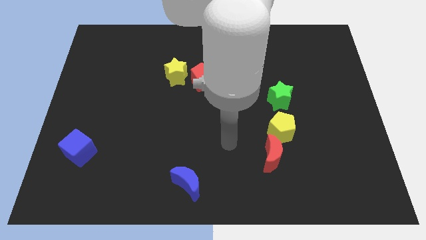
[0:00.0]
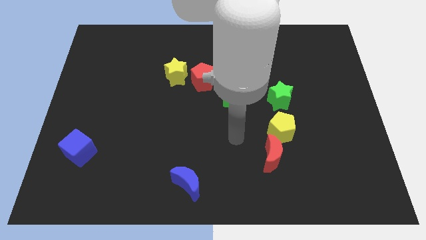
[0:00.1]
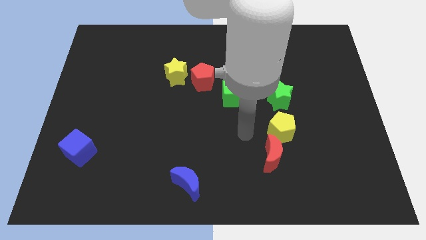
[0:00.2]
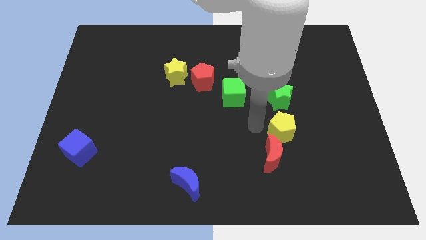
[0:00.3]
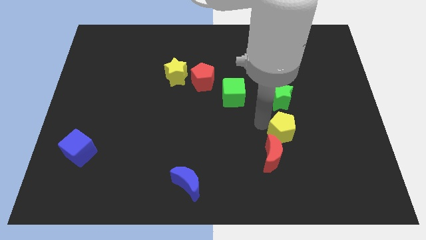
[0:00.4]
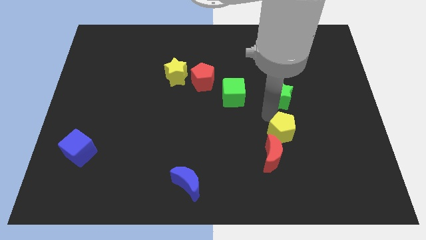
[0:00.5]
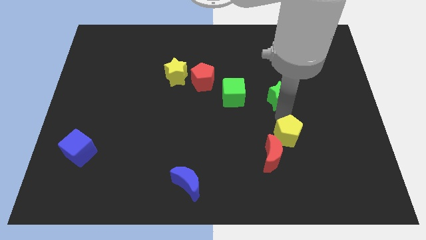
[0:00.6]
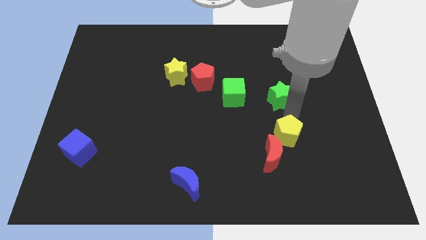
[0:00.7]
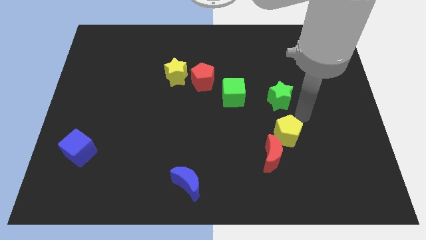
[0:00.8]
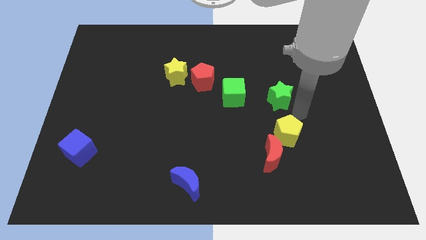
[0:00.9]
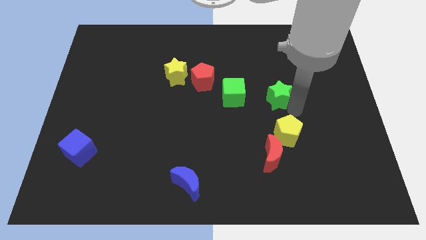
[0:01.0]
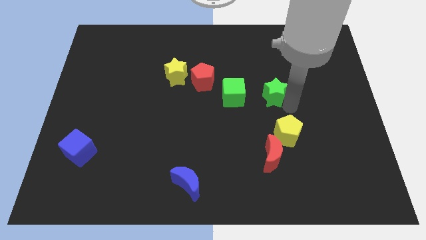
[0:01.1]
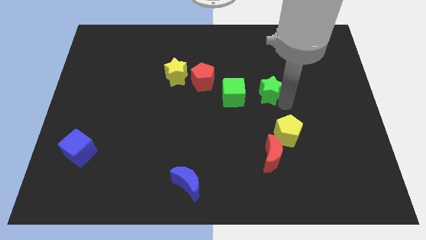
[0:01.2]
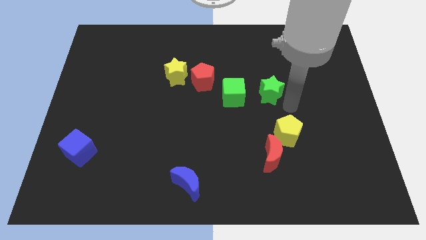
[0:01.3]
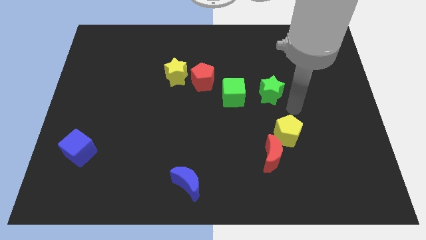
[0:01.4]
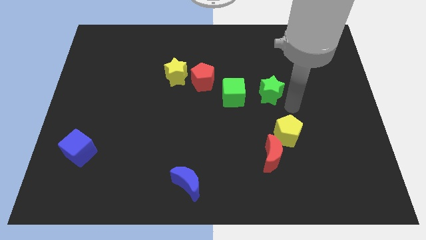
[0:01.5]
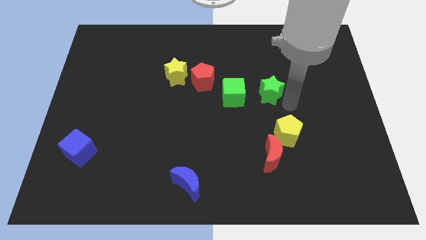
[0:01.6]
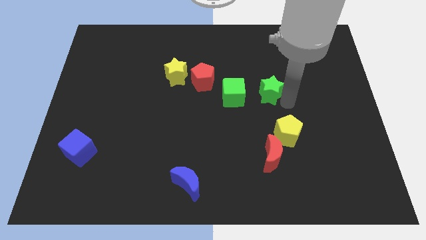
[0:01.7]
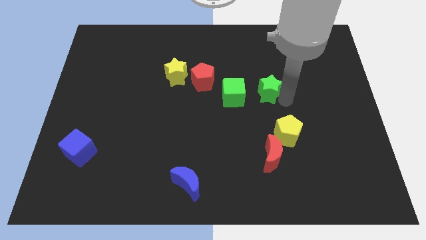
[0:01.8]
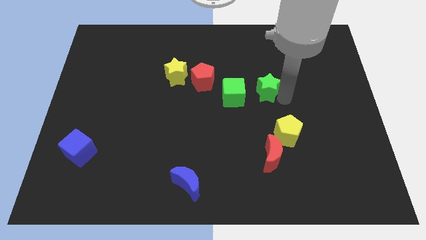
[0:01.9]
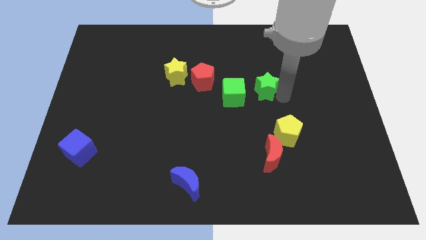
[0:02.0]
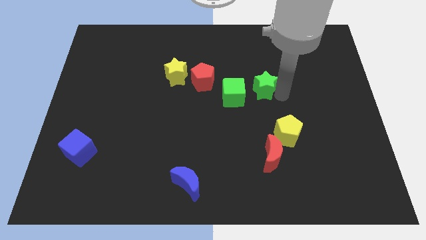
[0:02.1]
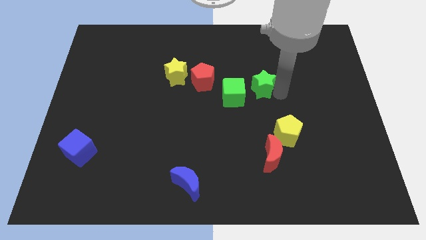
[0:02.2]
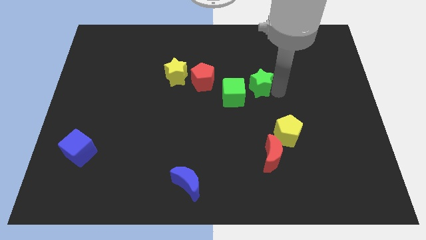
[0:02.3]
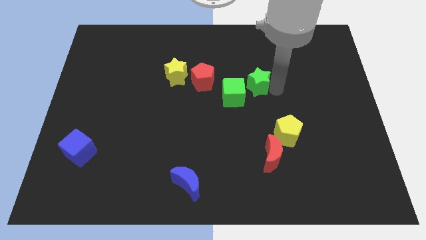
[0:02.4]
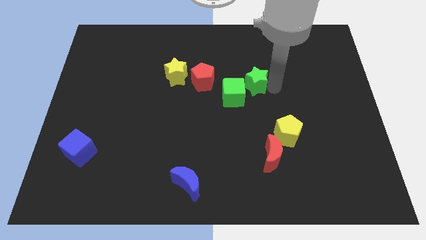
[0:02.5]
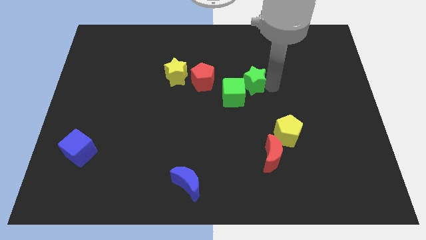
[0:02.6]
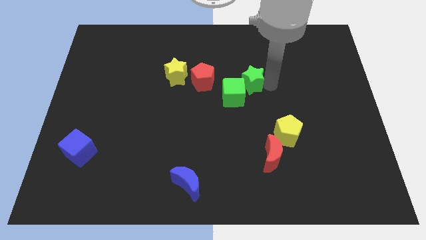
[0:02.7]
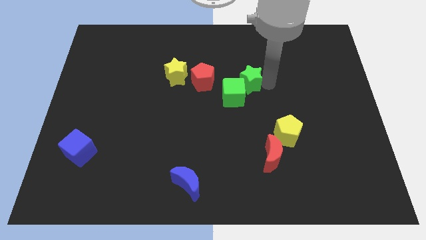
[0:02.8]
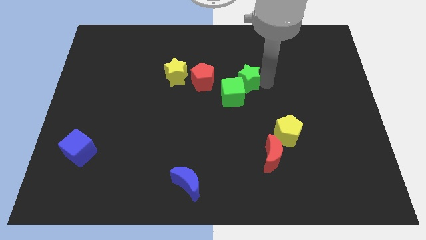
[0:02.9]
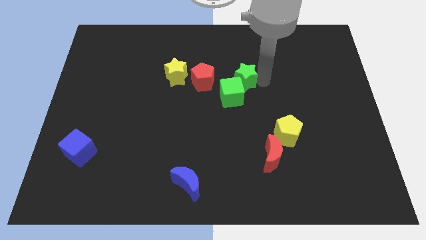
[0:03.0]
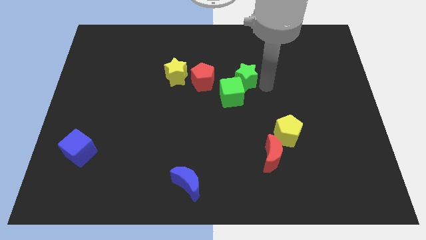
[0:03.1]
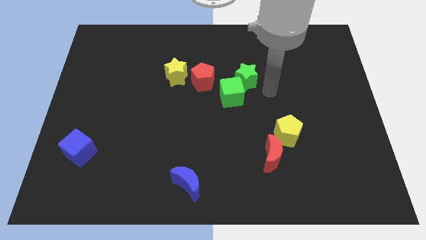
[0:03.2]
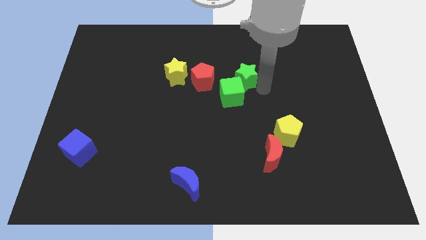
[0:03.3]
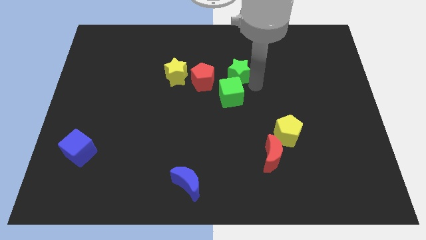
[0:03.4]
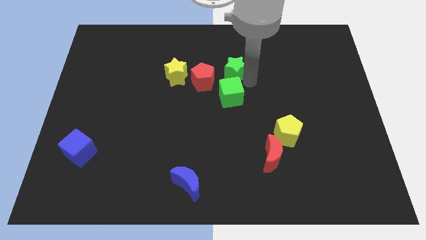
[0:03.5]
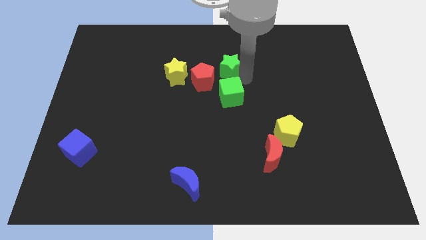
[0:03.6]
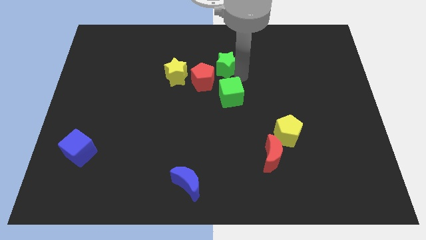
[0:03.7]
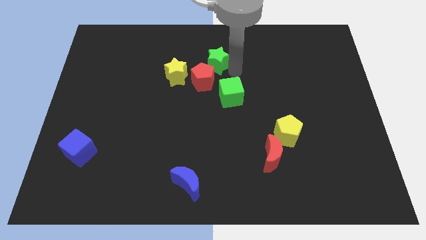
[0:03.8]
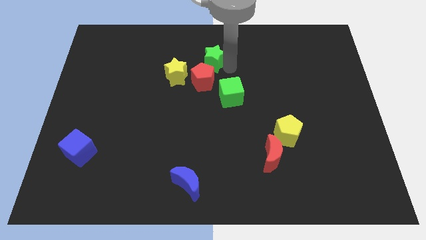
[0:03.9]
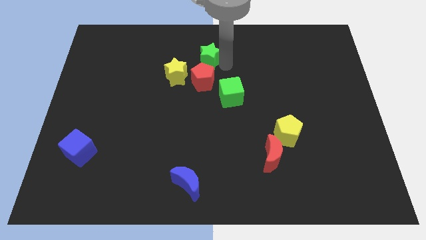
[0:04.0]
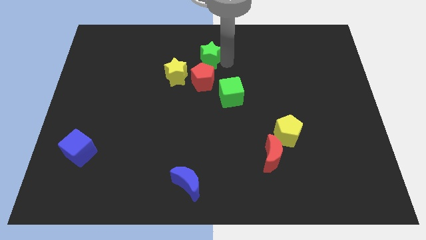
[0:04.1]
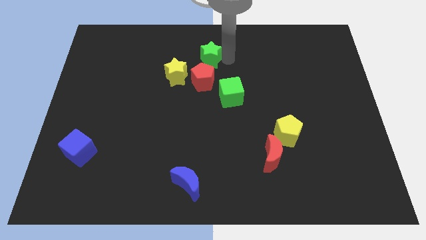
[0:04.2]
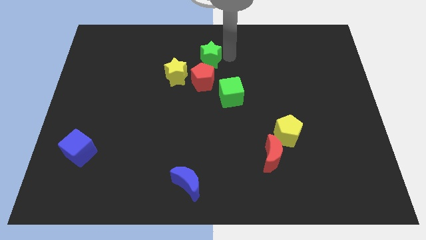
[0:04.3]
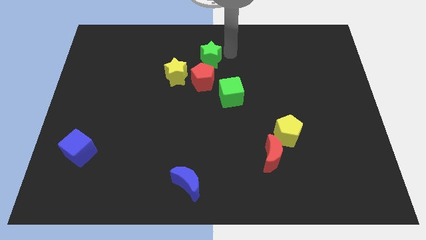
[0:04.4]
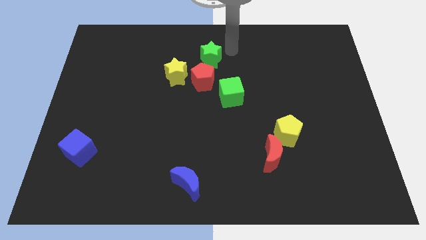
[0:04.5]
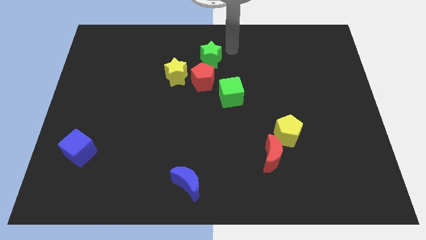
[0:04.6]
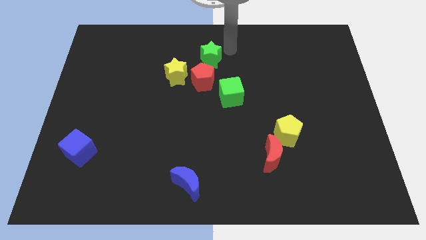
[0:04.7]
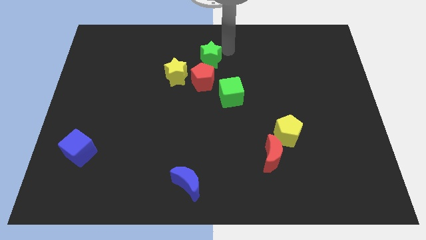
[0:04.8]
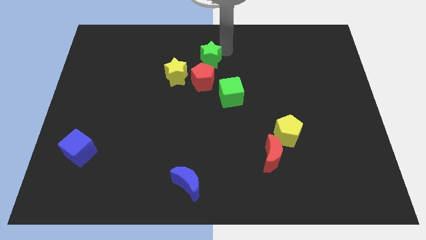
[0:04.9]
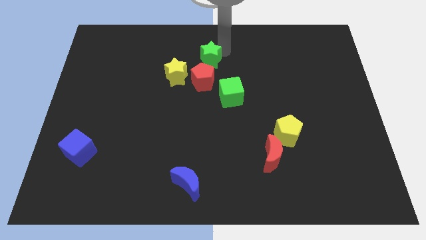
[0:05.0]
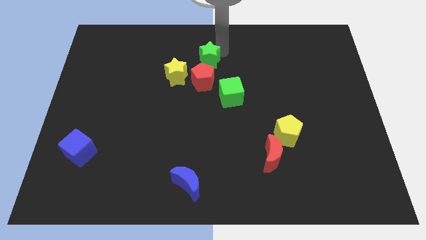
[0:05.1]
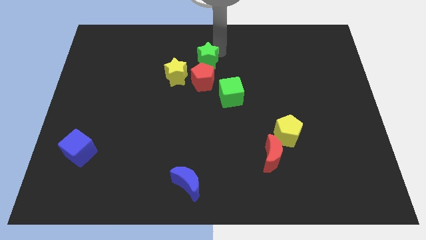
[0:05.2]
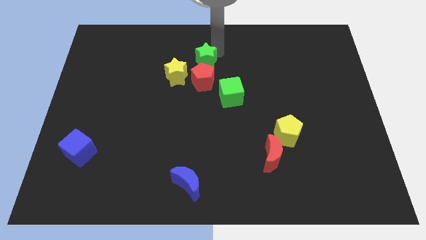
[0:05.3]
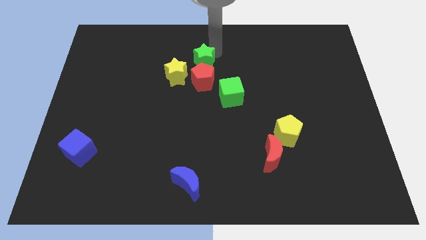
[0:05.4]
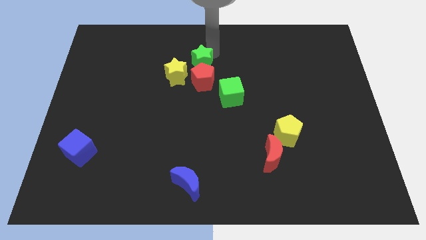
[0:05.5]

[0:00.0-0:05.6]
put the green star to the top left of the red pentagon

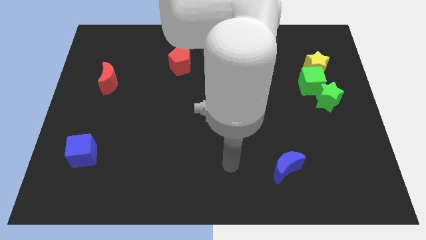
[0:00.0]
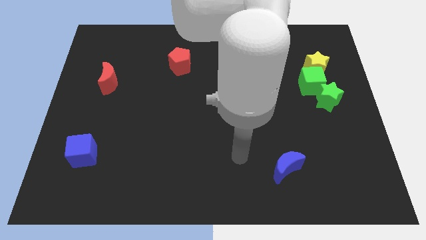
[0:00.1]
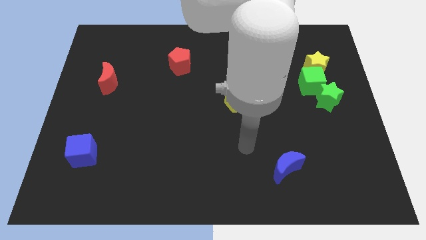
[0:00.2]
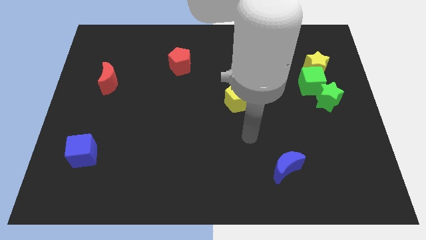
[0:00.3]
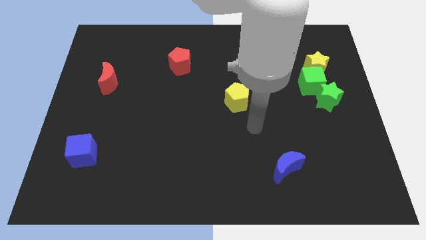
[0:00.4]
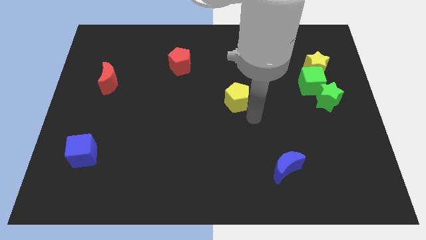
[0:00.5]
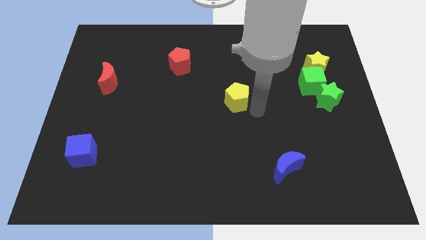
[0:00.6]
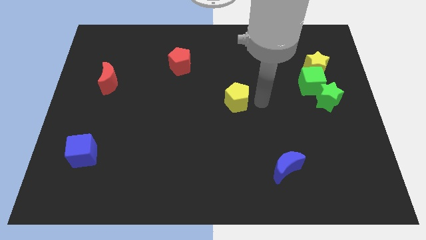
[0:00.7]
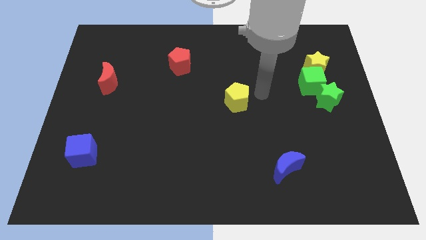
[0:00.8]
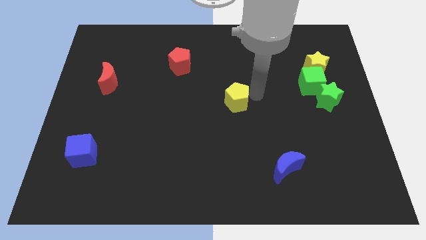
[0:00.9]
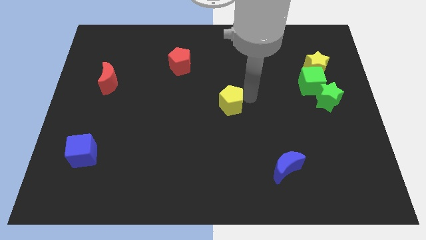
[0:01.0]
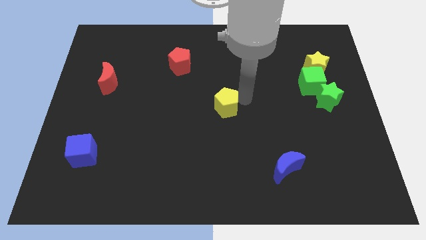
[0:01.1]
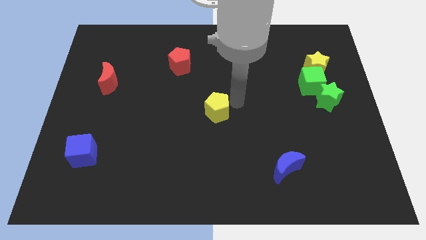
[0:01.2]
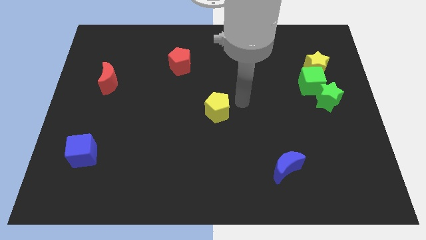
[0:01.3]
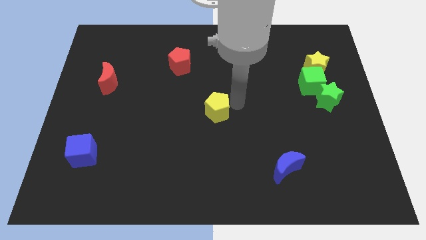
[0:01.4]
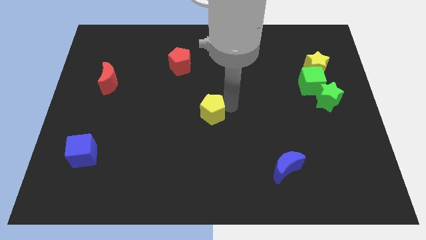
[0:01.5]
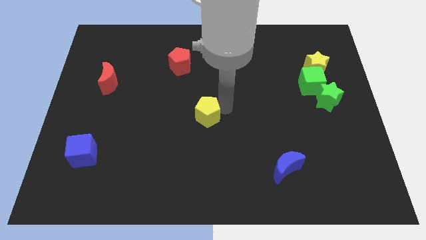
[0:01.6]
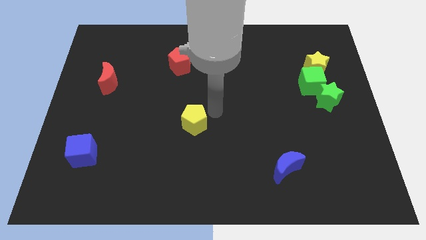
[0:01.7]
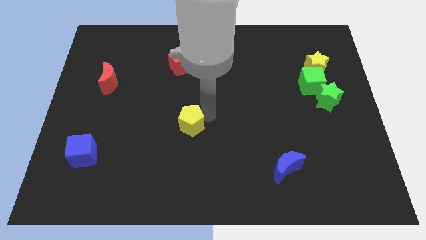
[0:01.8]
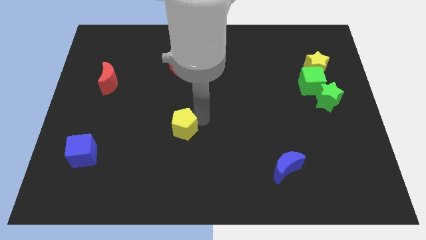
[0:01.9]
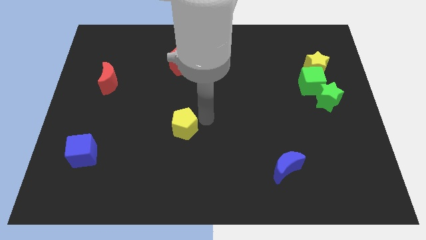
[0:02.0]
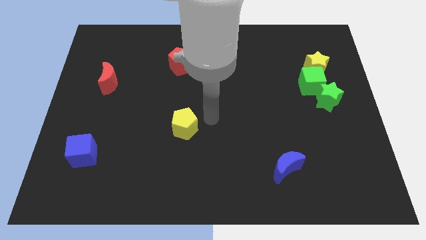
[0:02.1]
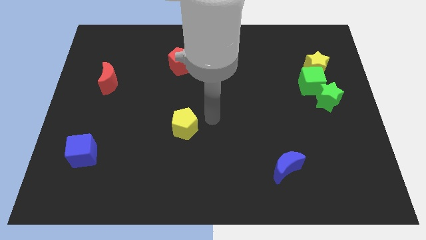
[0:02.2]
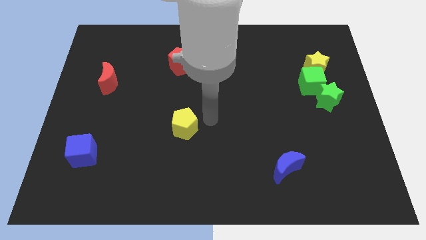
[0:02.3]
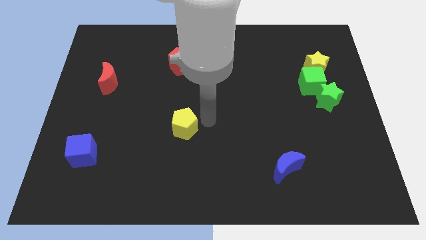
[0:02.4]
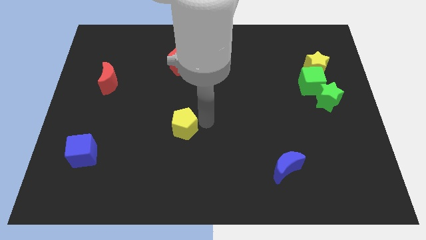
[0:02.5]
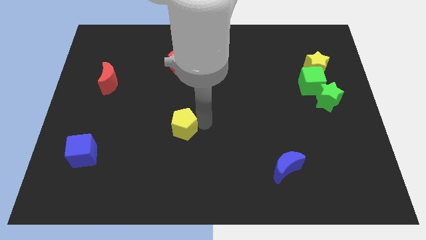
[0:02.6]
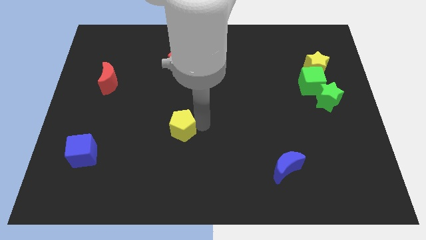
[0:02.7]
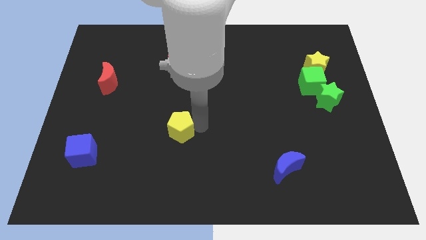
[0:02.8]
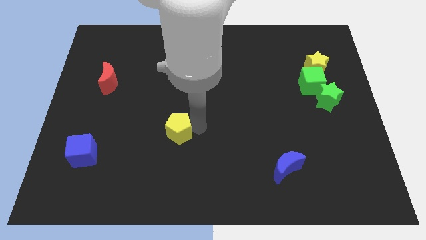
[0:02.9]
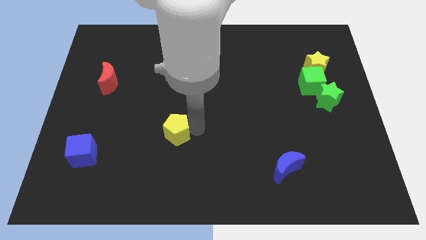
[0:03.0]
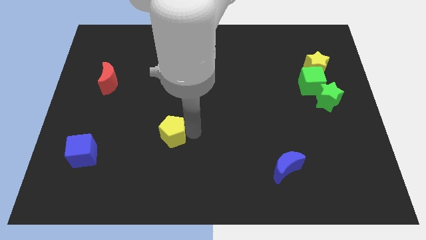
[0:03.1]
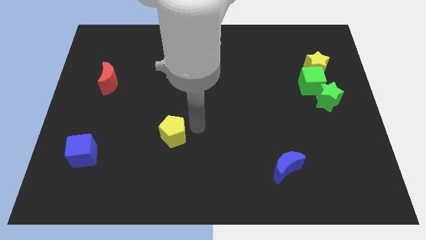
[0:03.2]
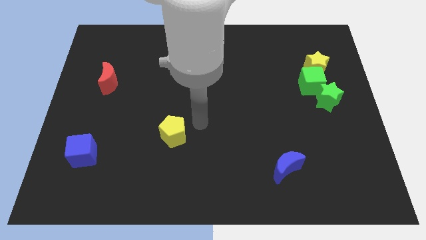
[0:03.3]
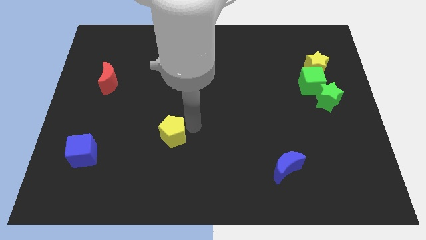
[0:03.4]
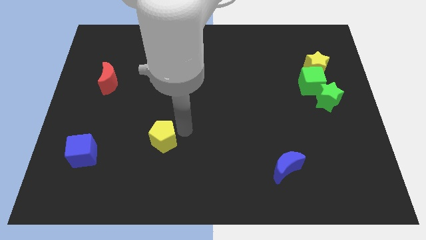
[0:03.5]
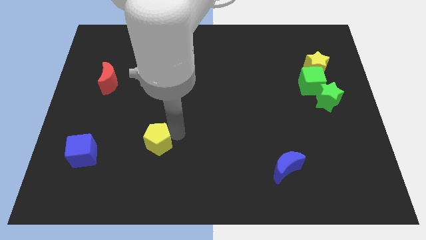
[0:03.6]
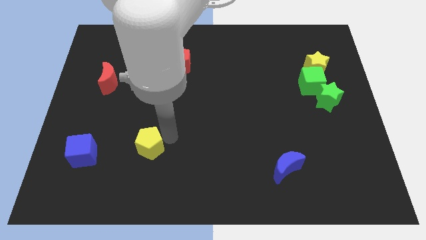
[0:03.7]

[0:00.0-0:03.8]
push the yellow pentagon just right of the blue cube
